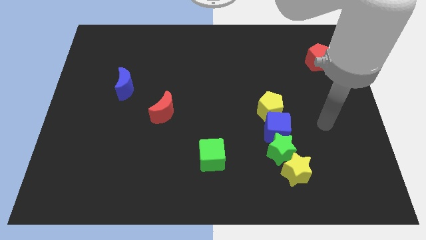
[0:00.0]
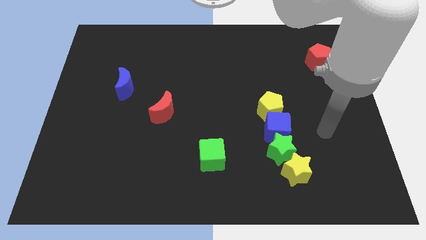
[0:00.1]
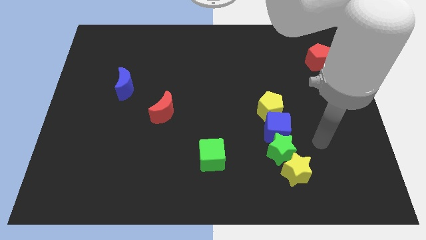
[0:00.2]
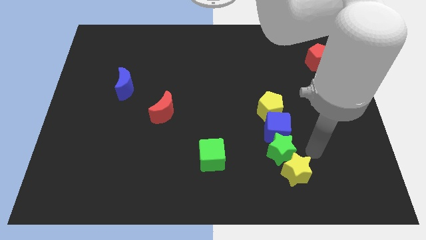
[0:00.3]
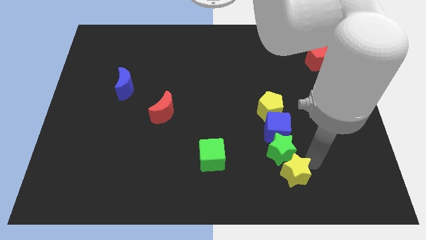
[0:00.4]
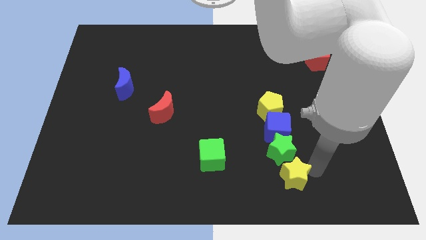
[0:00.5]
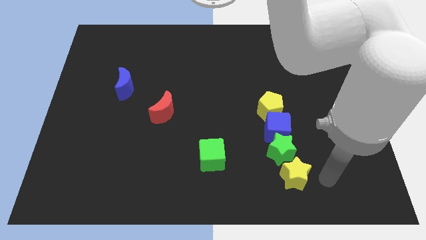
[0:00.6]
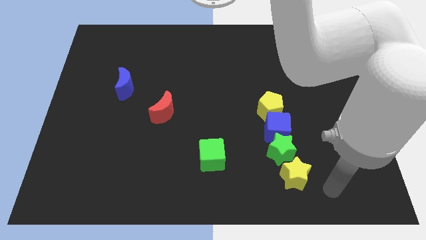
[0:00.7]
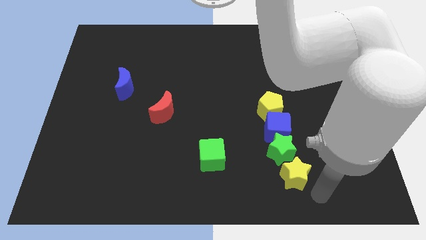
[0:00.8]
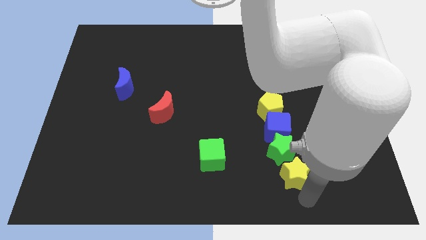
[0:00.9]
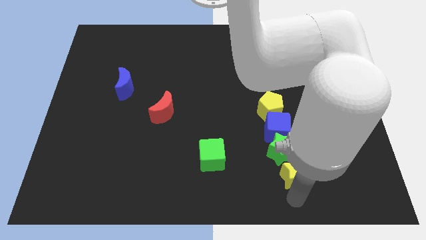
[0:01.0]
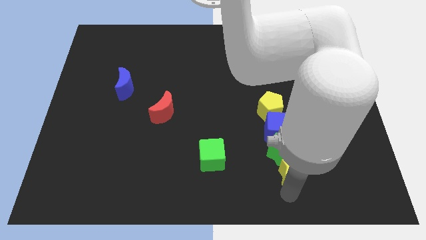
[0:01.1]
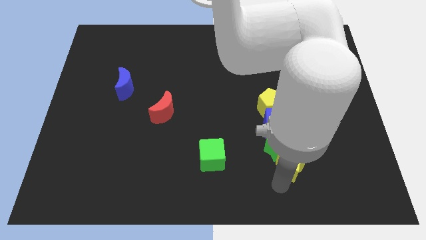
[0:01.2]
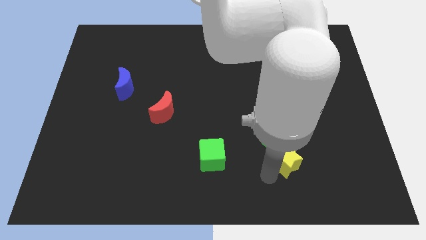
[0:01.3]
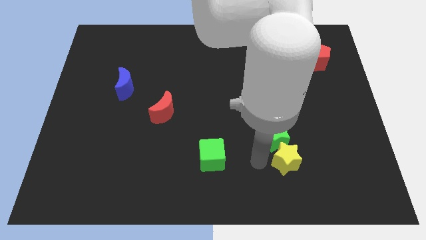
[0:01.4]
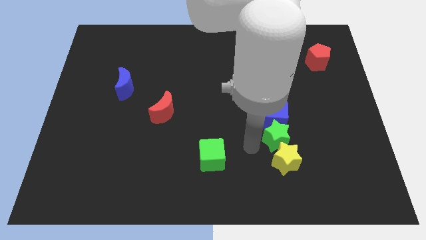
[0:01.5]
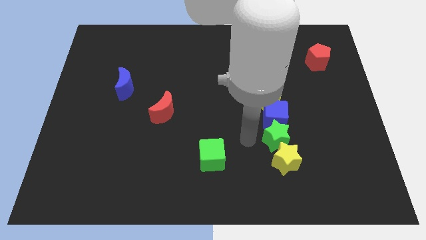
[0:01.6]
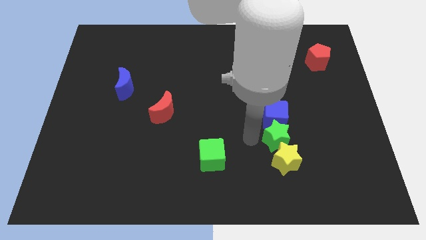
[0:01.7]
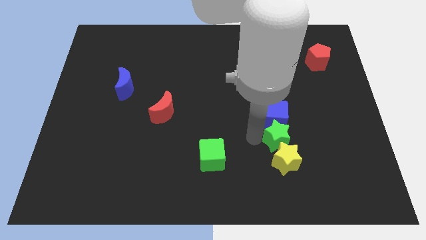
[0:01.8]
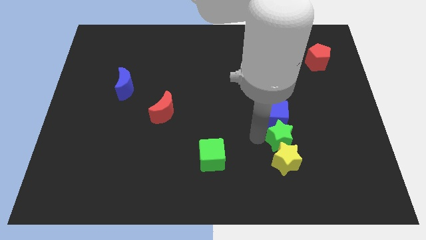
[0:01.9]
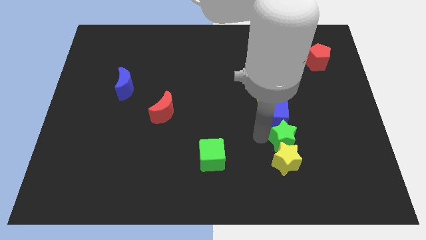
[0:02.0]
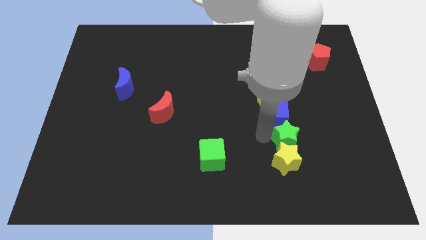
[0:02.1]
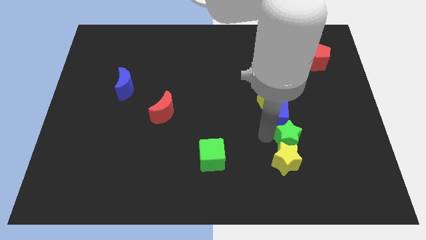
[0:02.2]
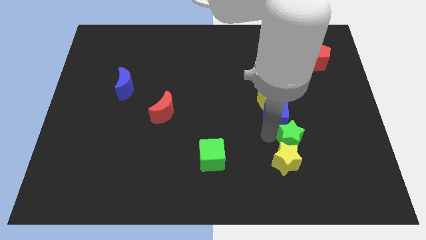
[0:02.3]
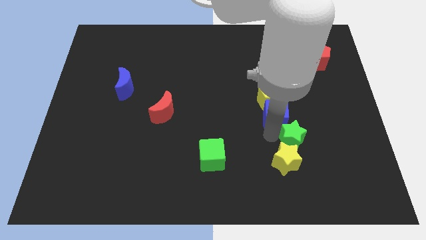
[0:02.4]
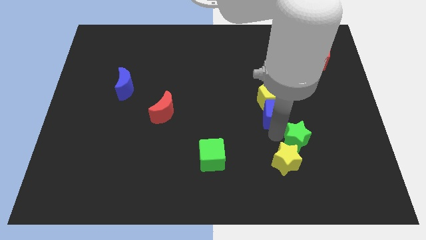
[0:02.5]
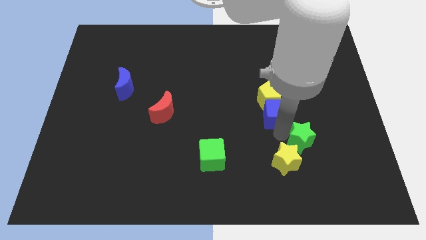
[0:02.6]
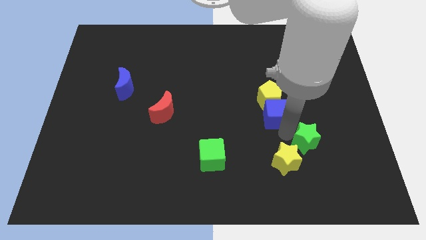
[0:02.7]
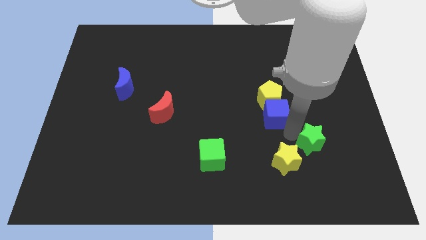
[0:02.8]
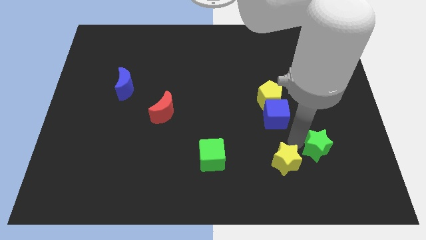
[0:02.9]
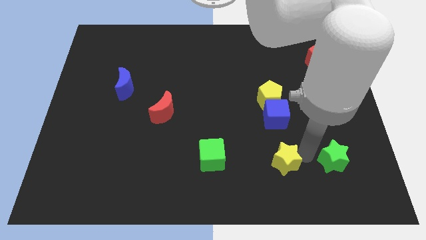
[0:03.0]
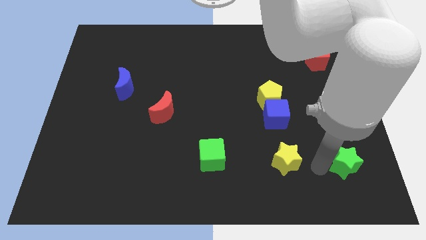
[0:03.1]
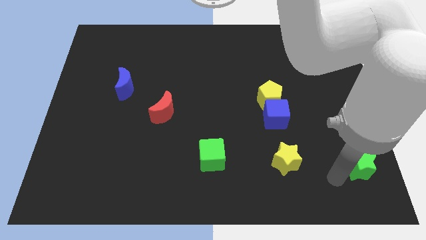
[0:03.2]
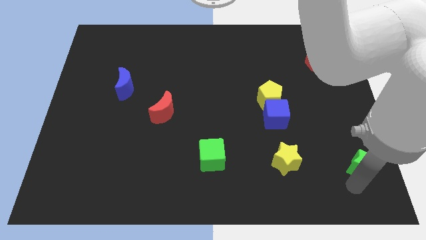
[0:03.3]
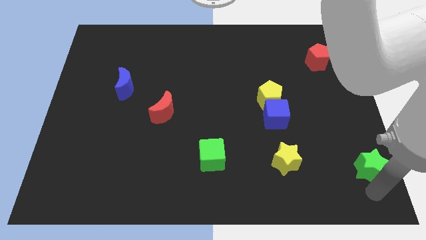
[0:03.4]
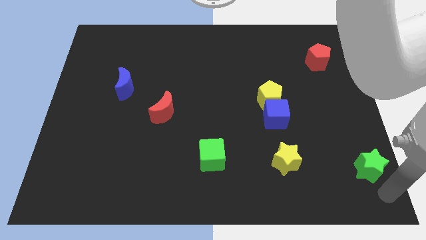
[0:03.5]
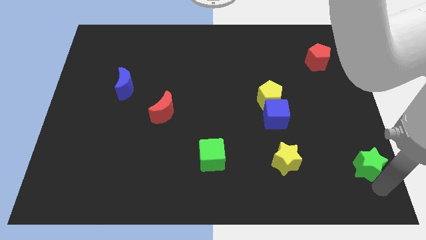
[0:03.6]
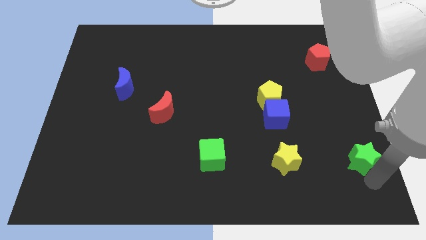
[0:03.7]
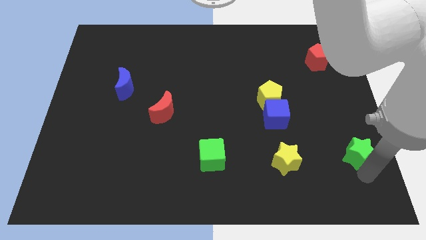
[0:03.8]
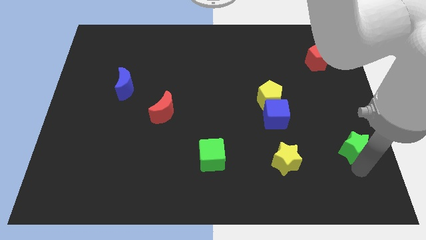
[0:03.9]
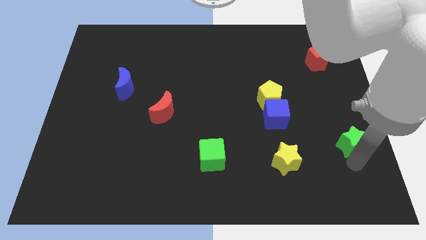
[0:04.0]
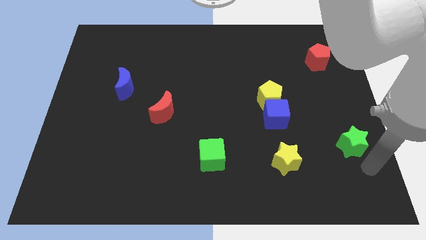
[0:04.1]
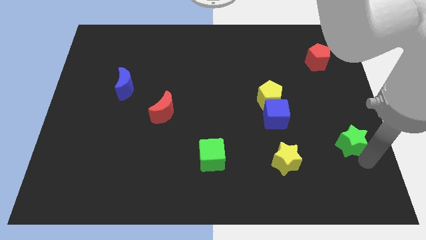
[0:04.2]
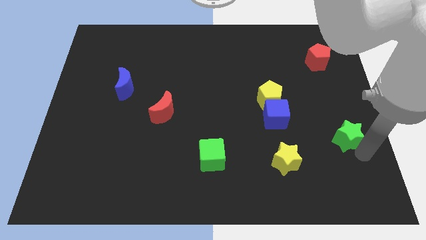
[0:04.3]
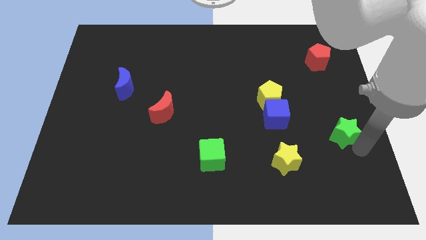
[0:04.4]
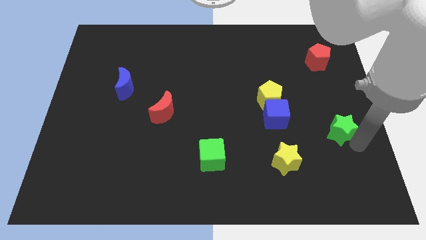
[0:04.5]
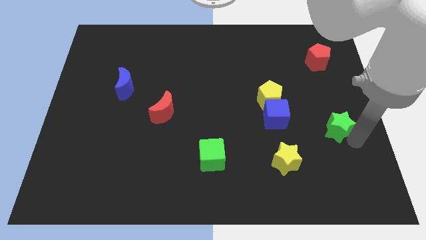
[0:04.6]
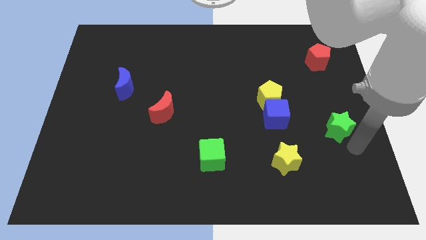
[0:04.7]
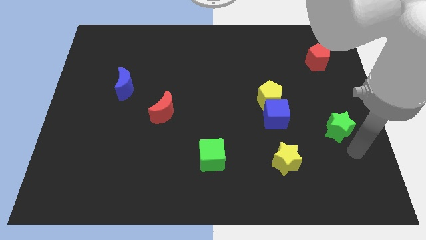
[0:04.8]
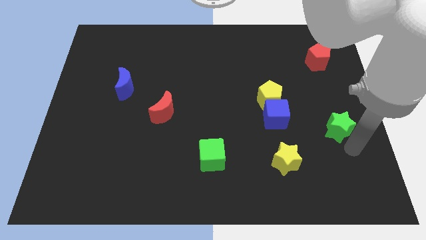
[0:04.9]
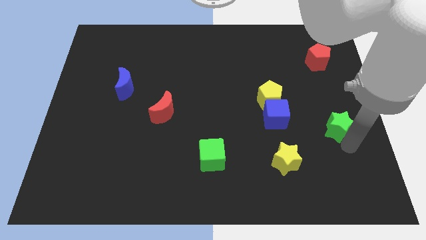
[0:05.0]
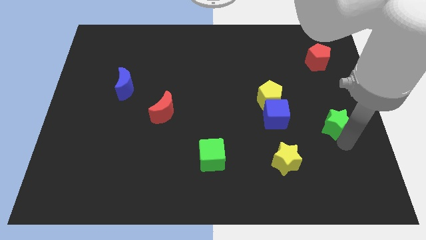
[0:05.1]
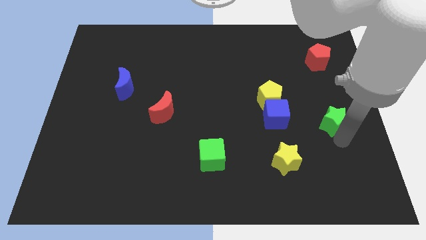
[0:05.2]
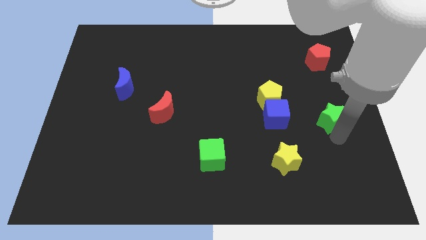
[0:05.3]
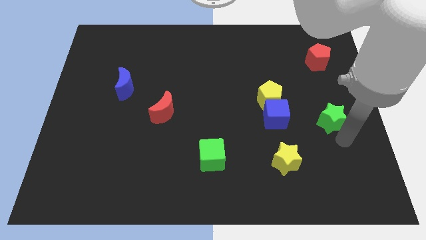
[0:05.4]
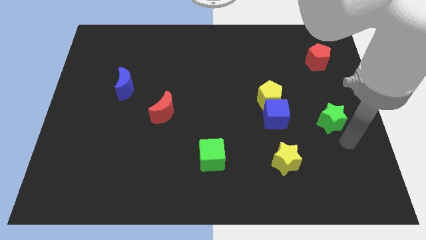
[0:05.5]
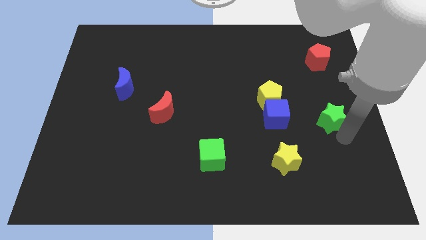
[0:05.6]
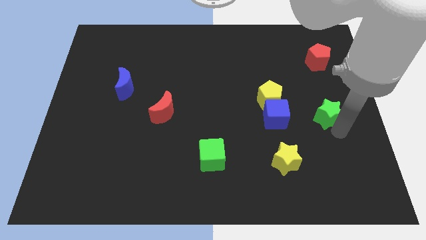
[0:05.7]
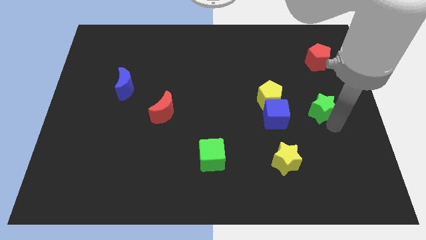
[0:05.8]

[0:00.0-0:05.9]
slide the green star right of the yellow pentagon
